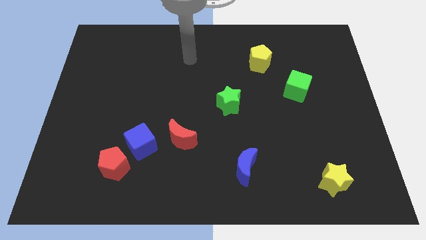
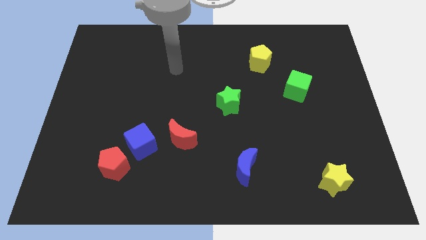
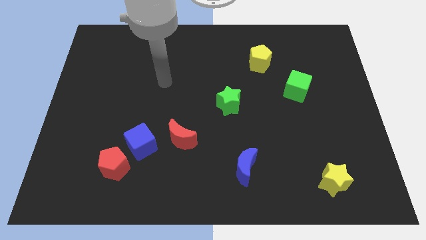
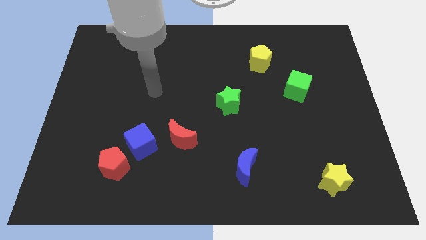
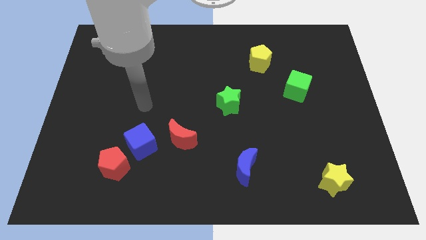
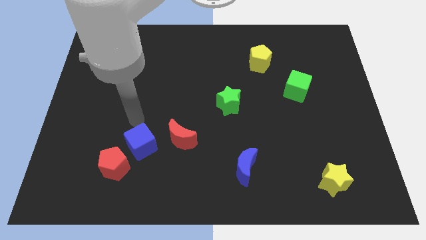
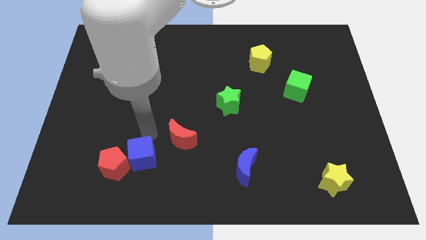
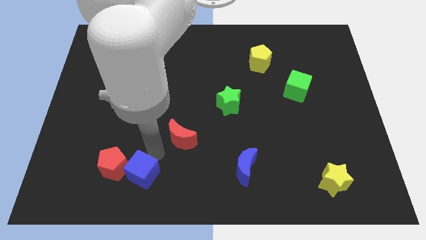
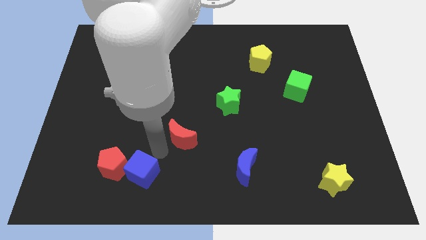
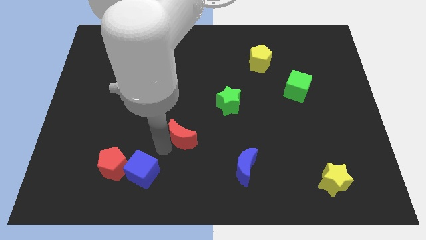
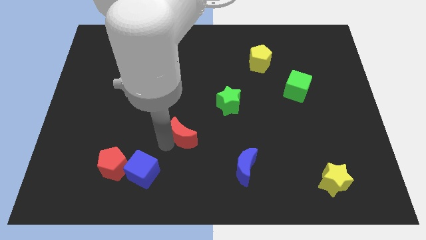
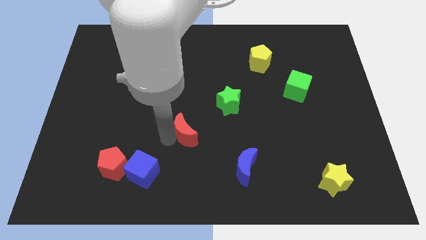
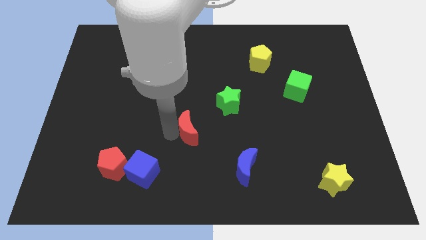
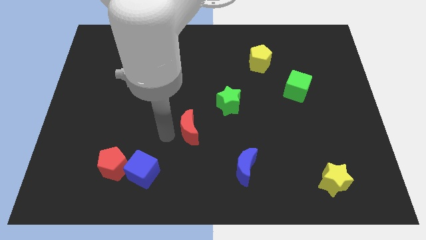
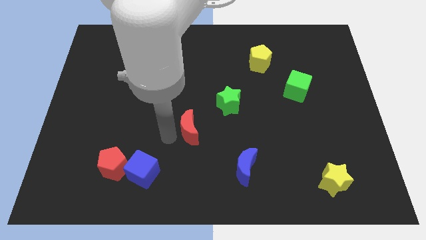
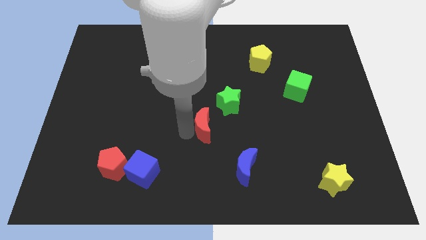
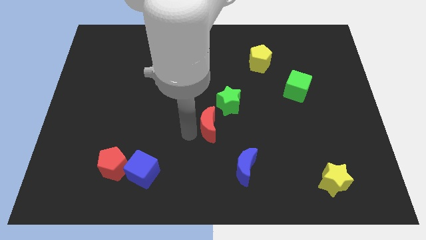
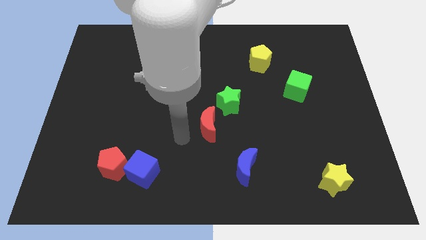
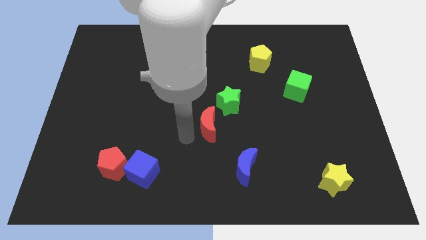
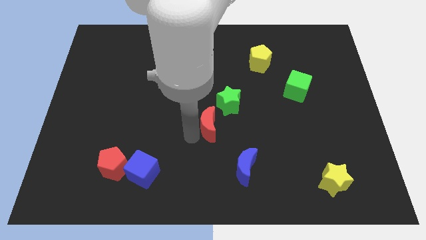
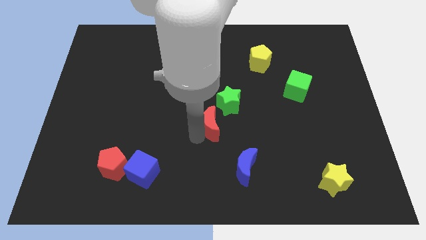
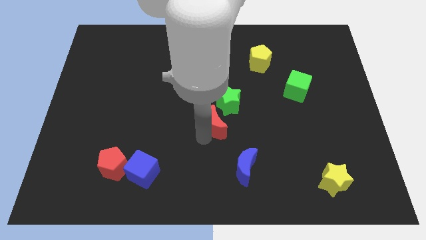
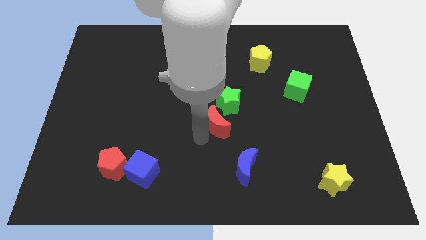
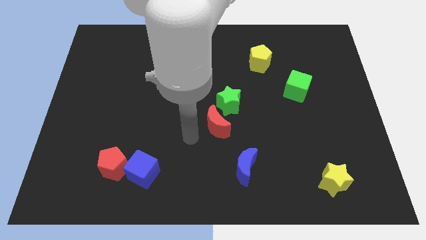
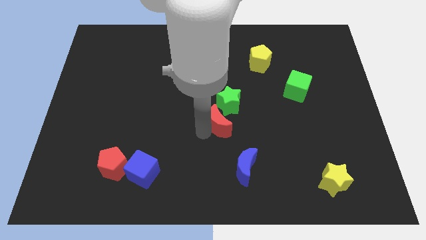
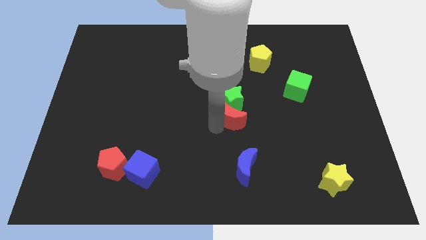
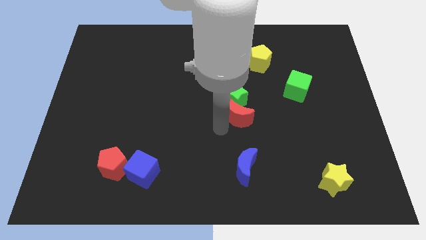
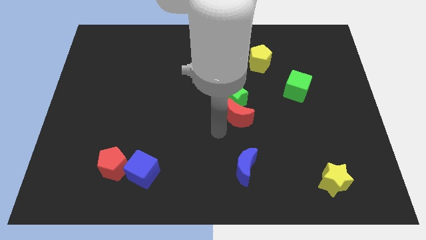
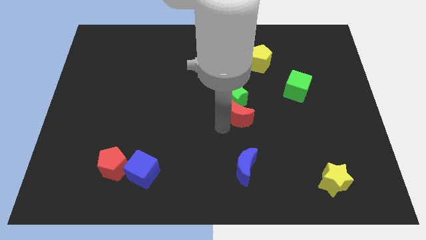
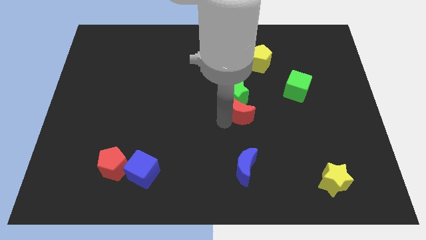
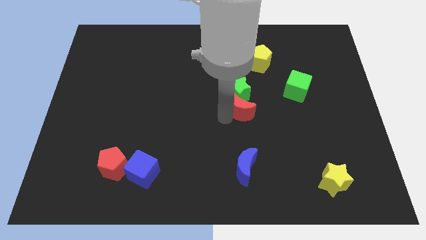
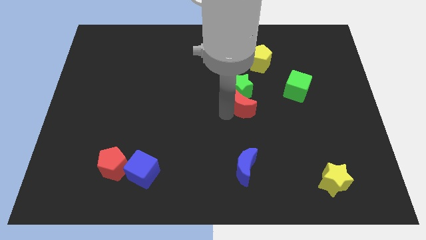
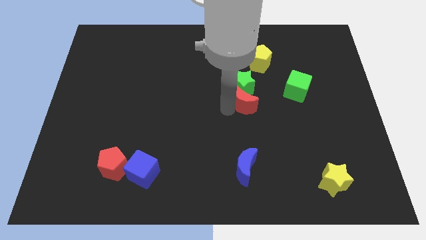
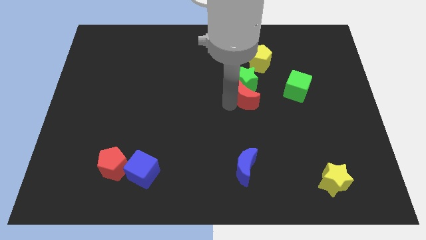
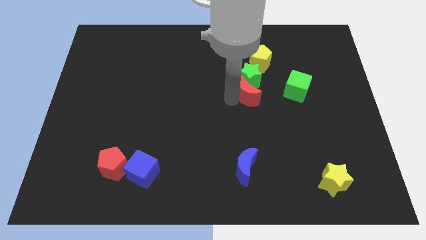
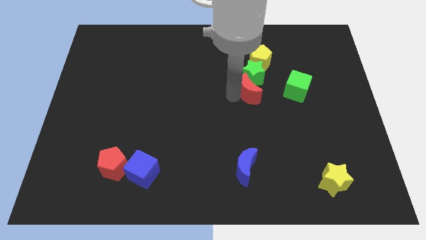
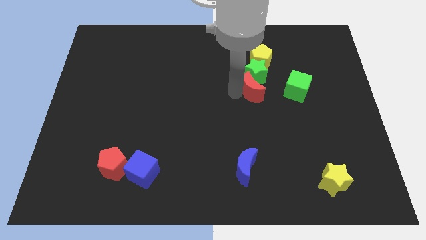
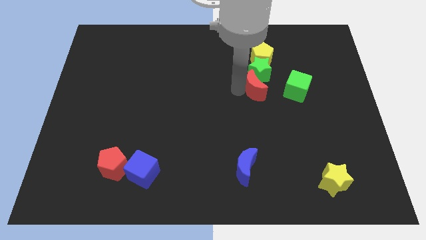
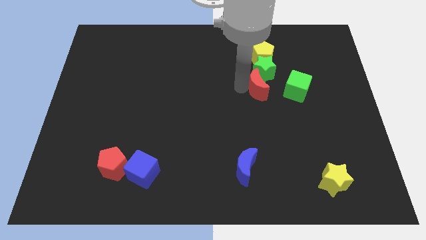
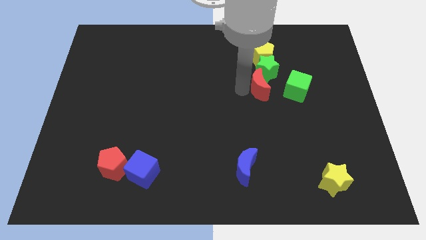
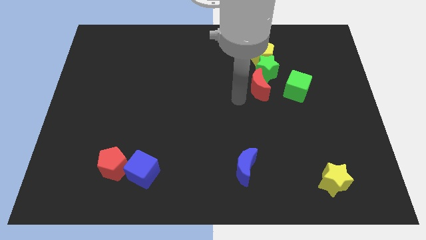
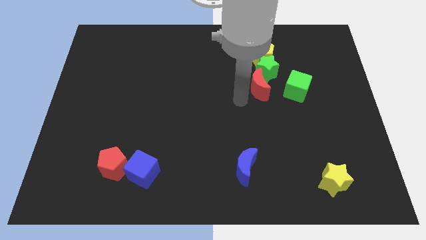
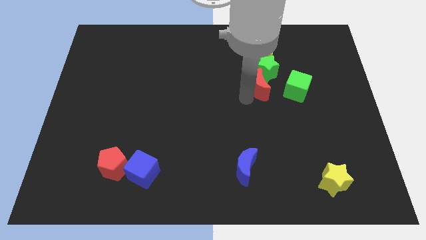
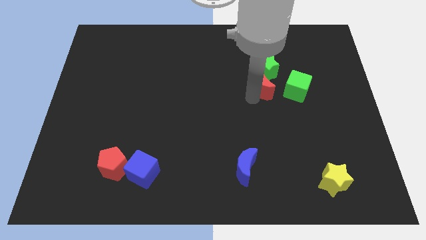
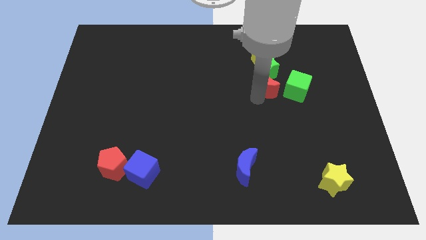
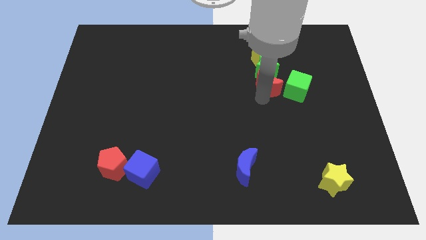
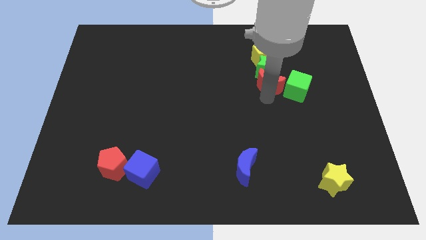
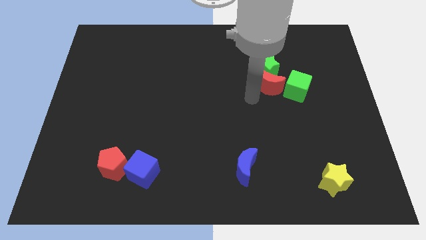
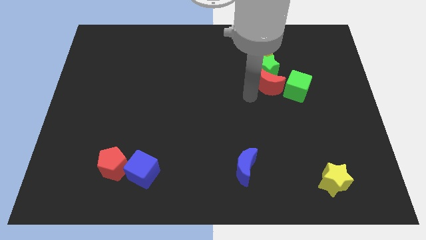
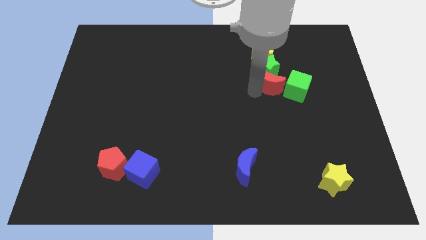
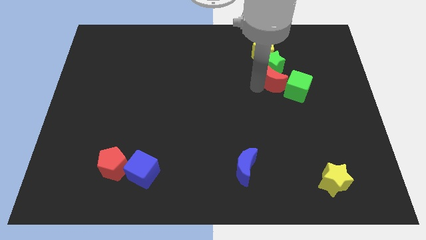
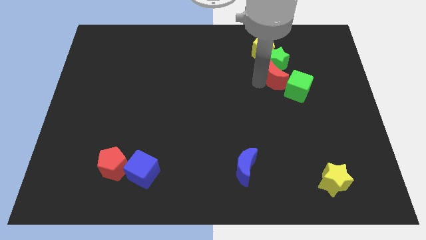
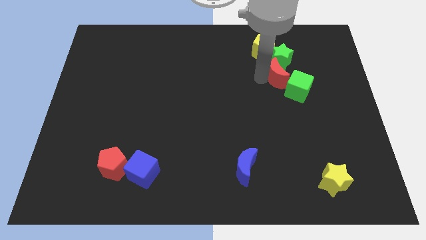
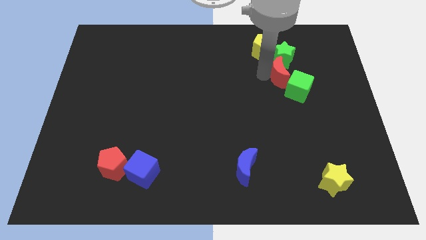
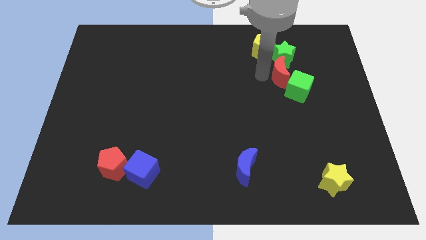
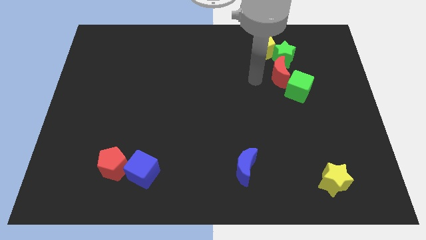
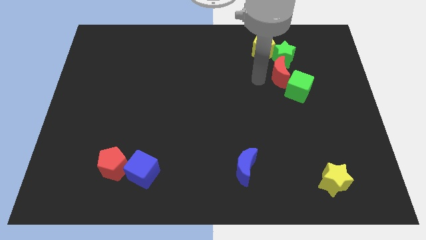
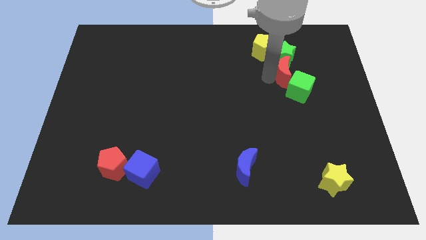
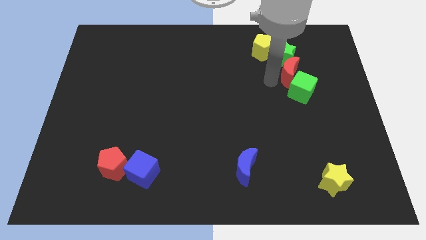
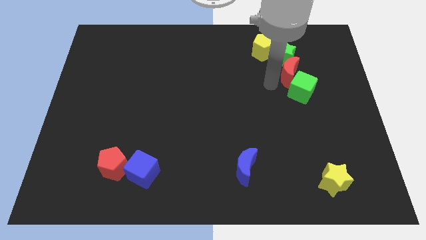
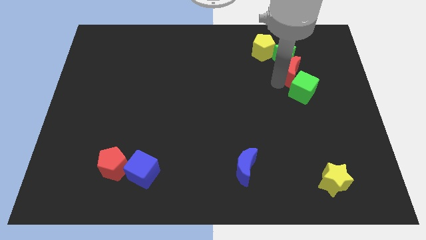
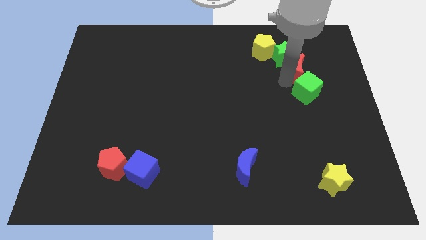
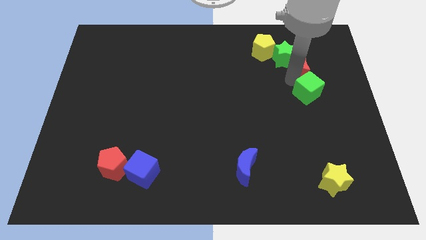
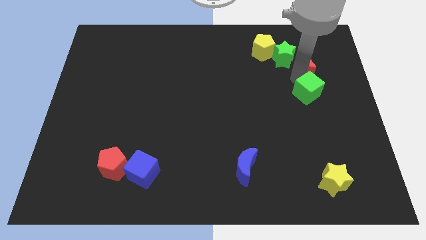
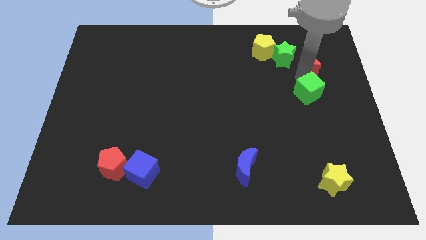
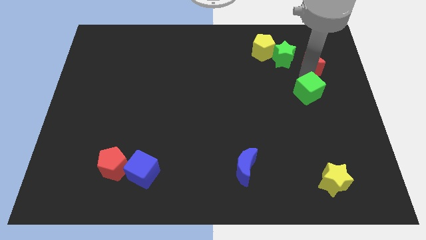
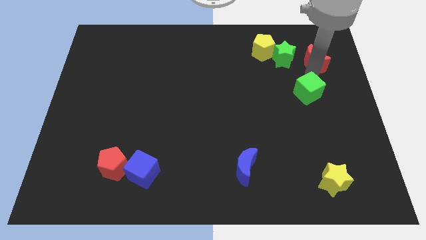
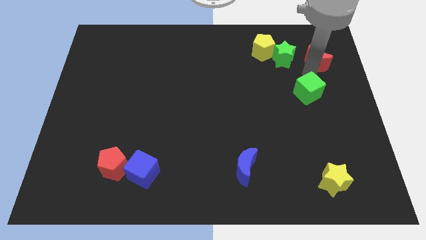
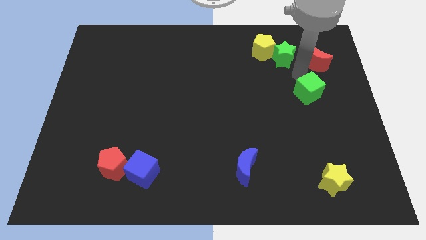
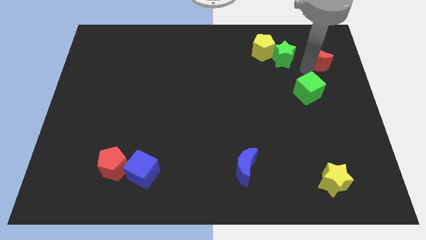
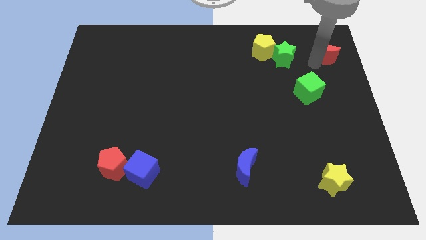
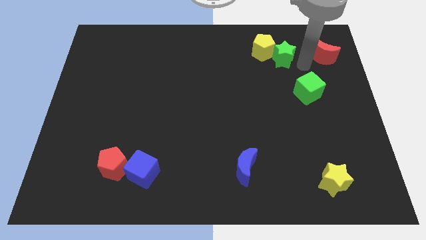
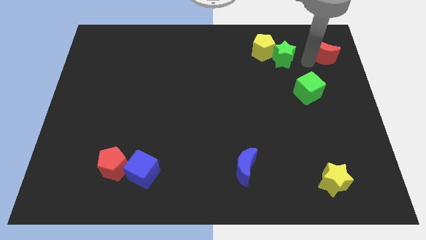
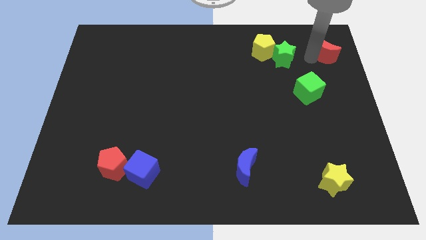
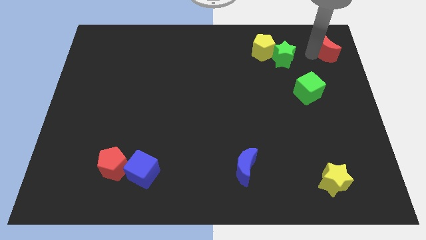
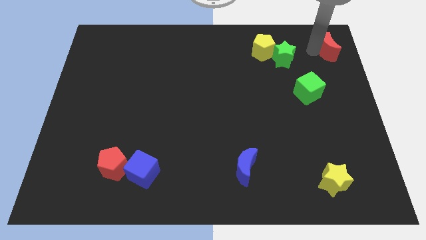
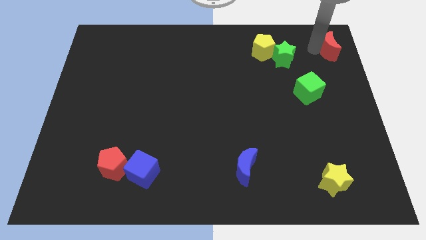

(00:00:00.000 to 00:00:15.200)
slide the red moon to the top right of the board
